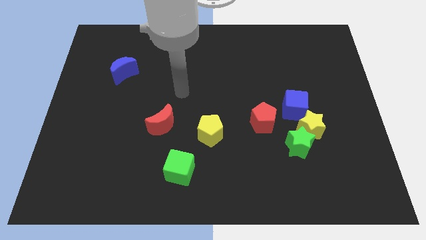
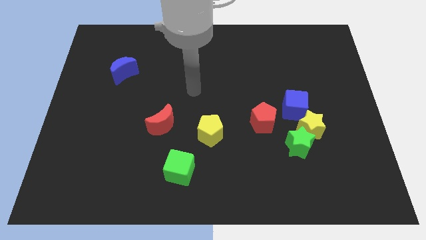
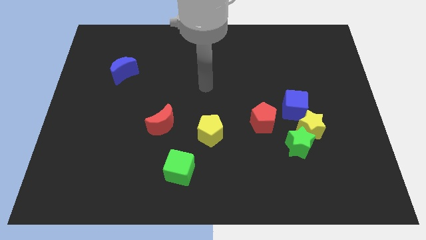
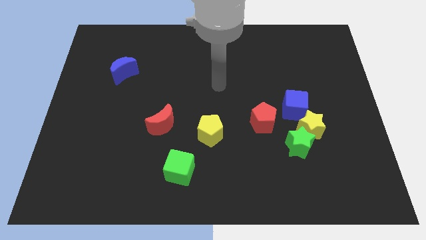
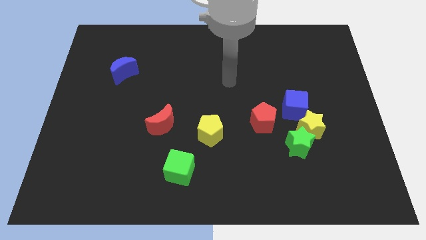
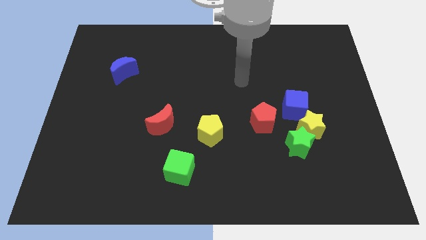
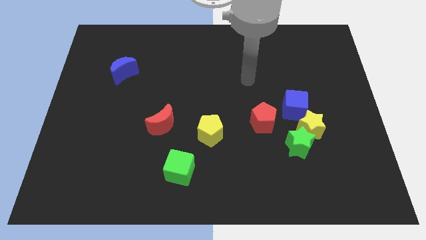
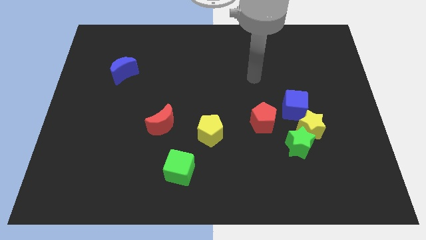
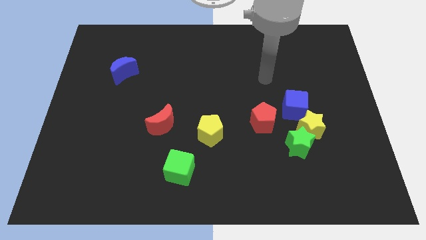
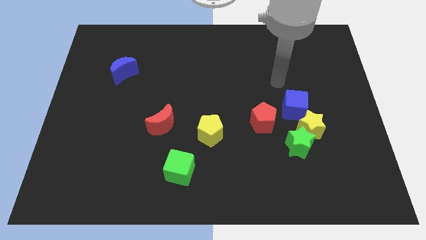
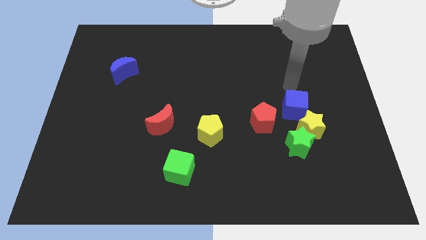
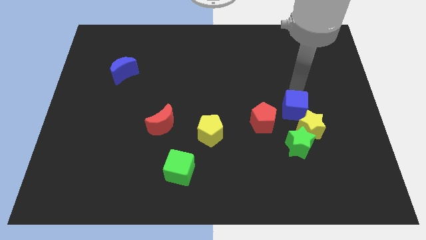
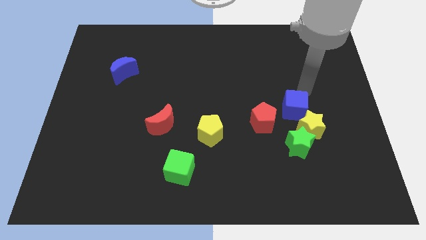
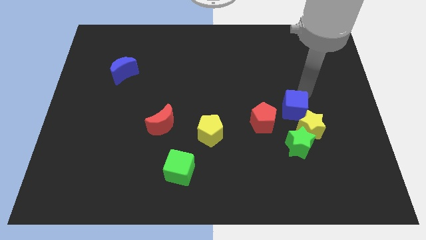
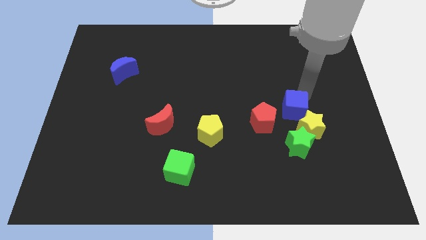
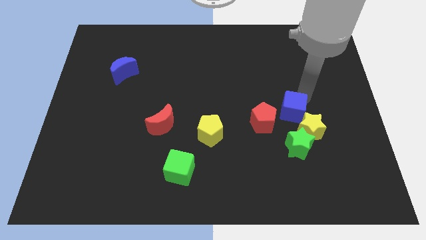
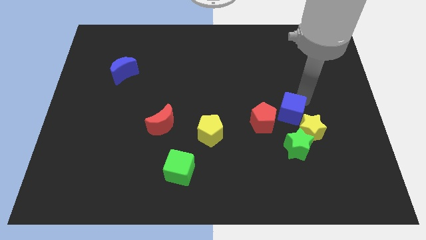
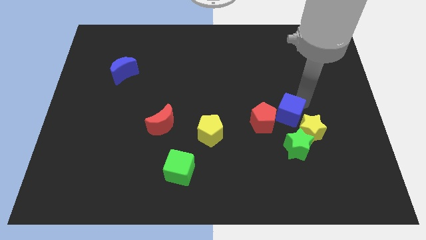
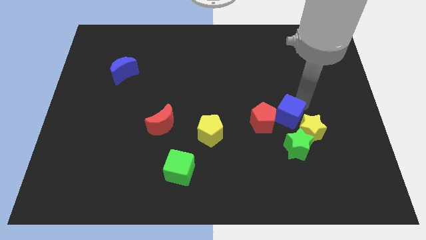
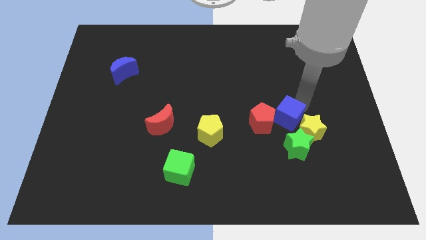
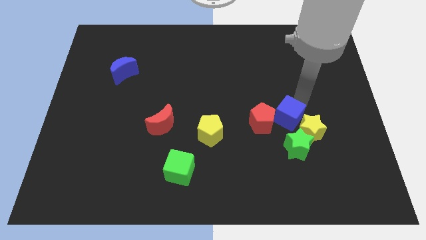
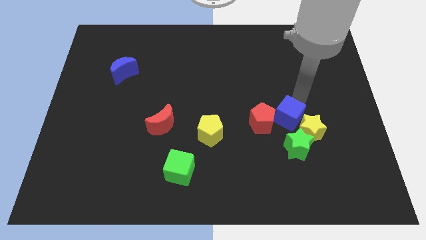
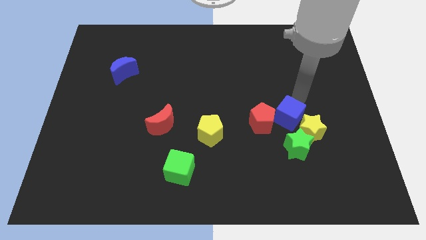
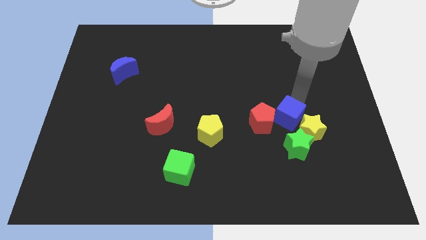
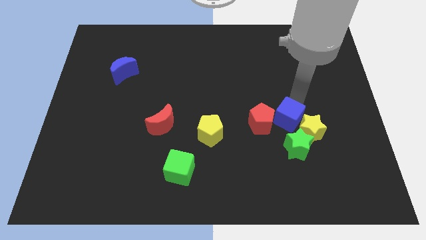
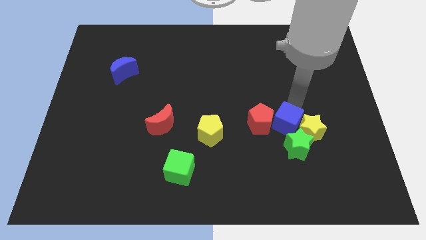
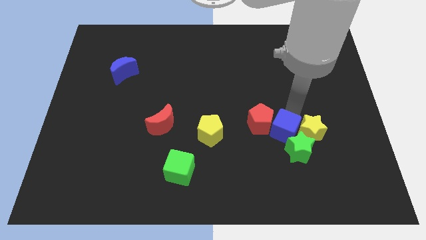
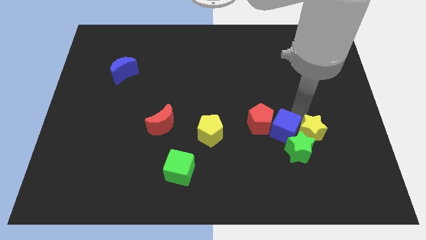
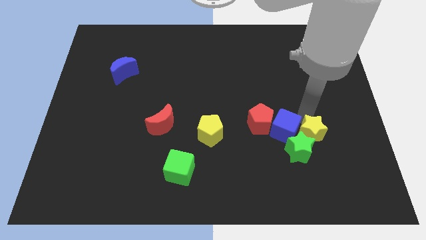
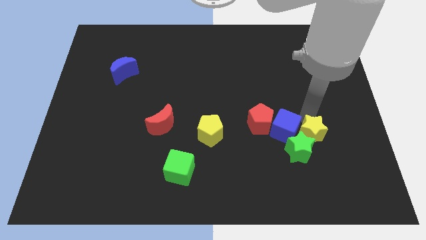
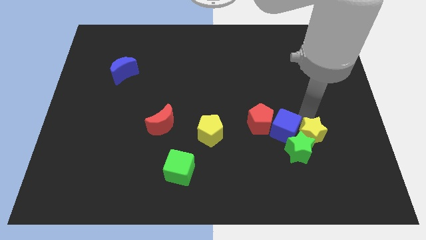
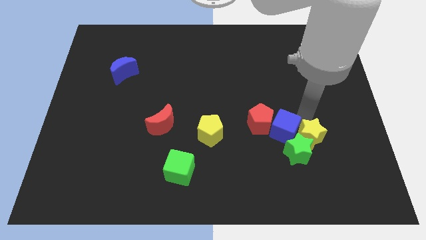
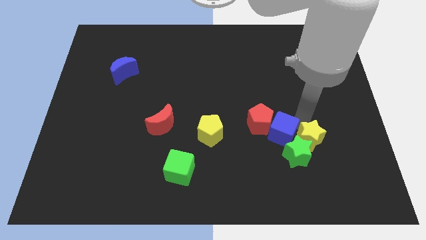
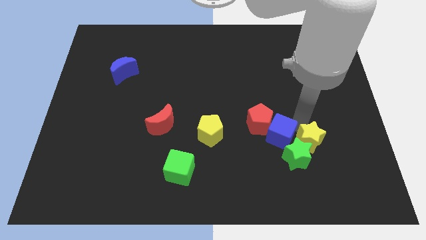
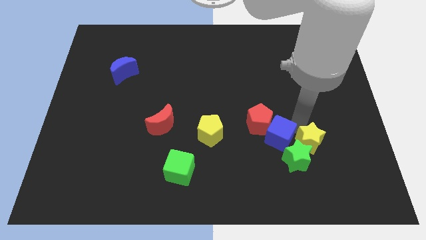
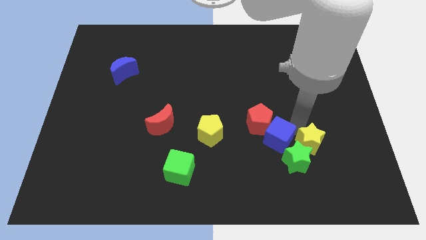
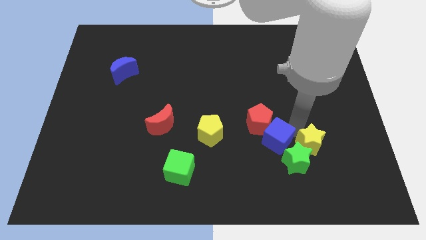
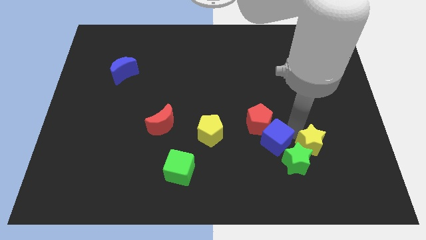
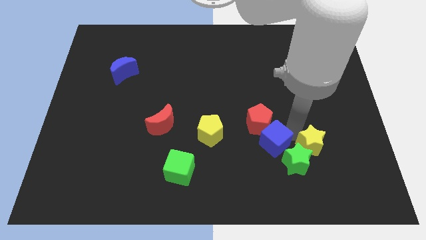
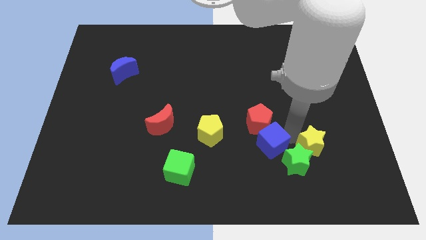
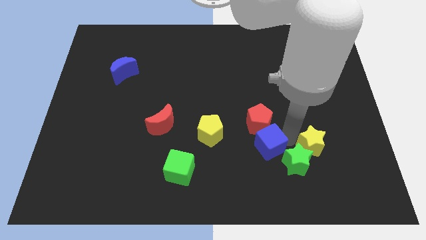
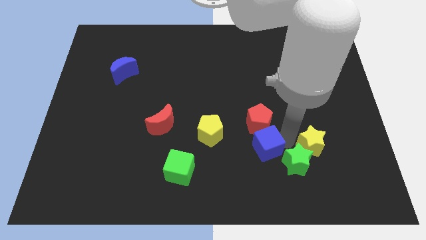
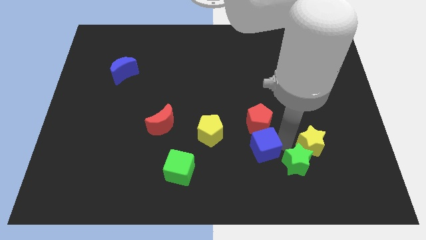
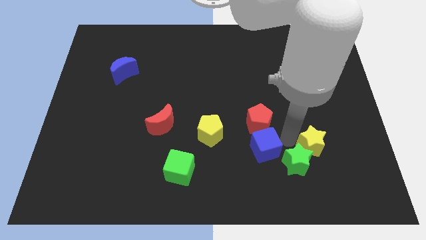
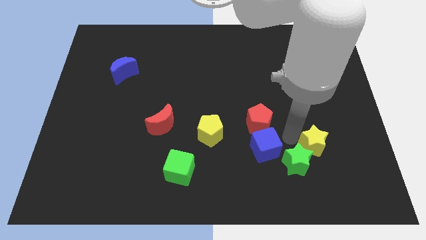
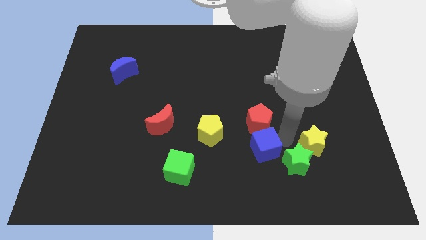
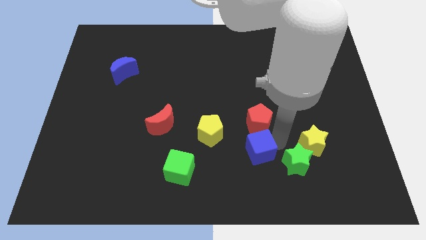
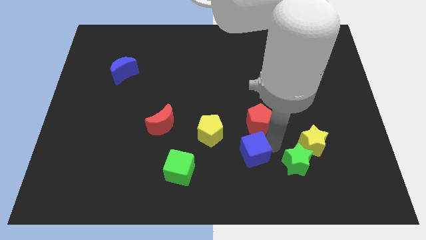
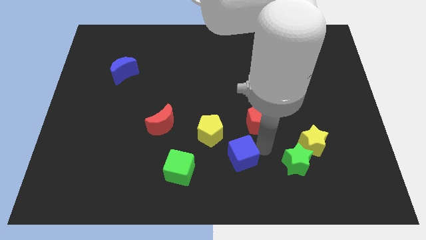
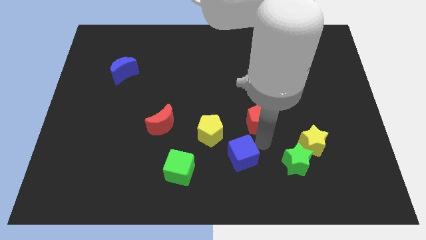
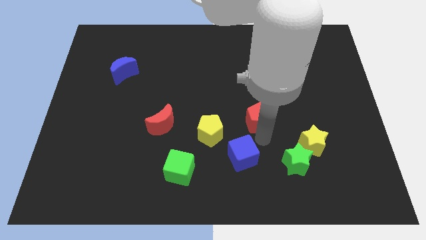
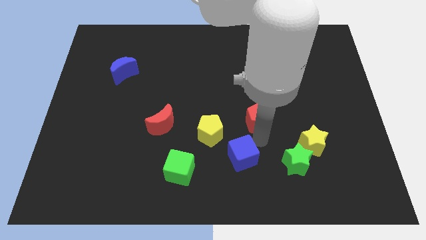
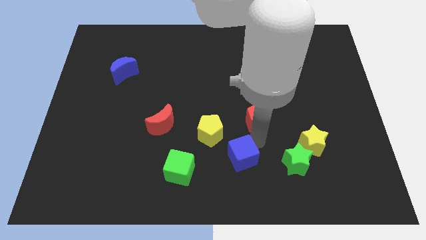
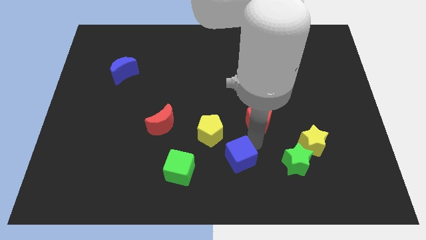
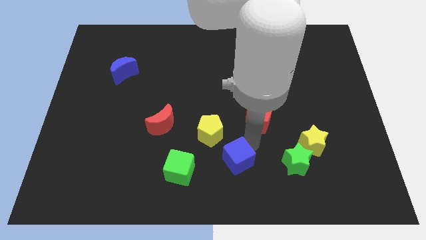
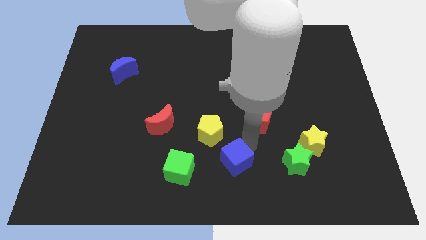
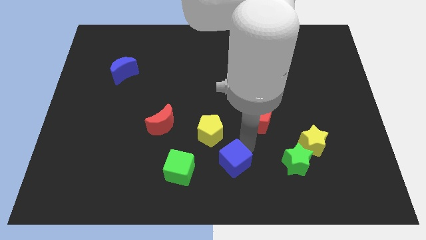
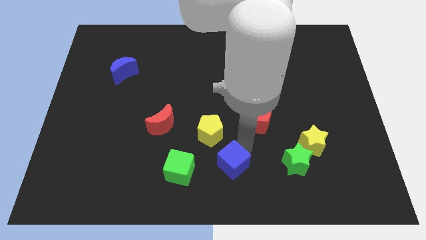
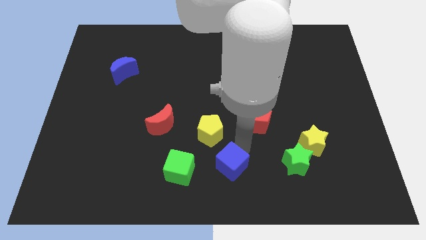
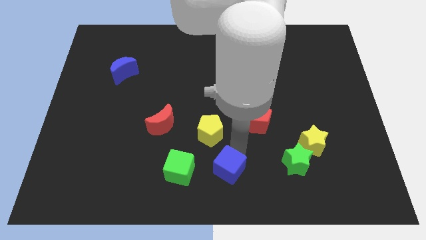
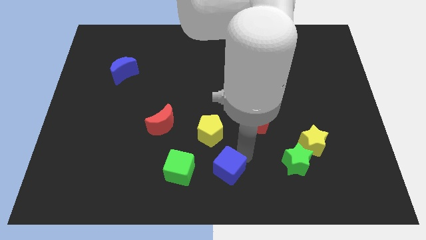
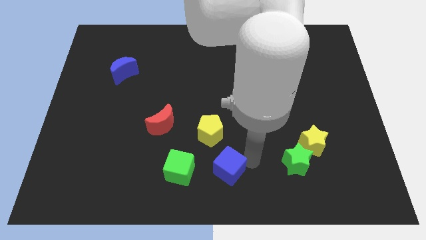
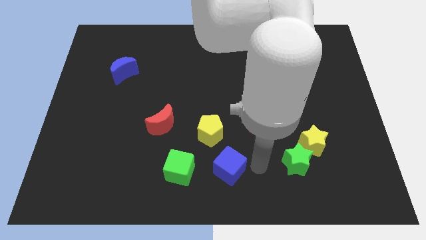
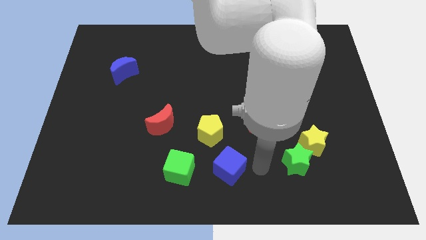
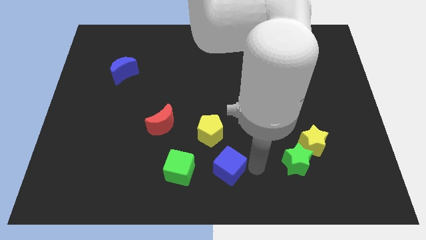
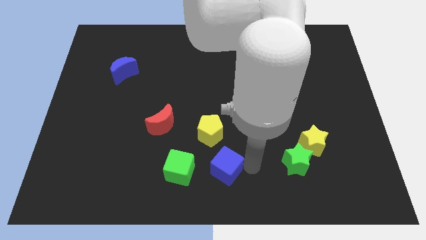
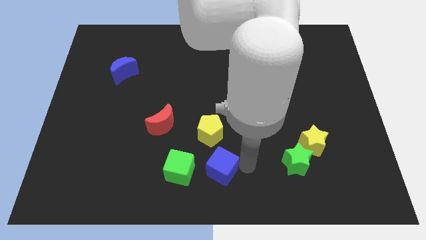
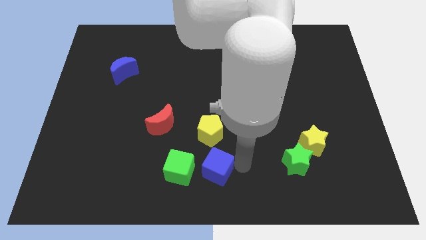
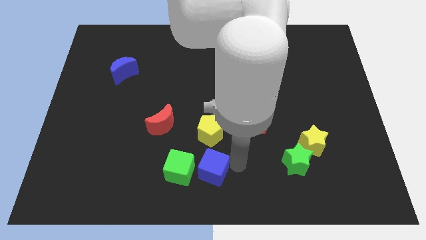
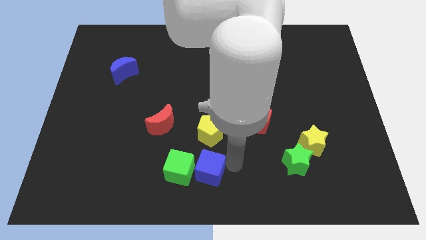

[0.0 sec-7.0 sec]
put the blue cube towards the green cube
